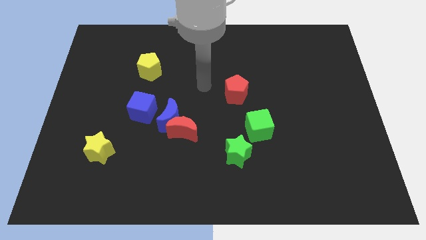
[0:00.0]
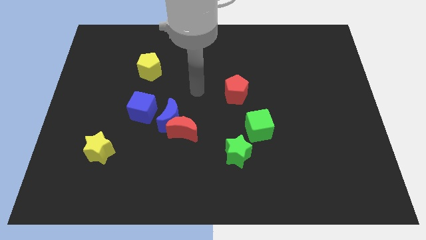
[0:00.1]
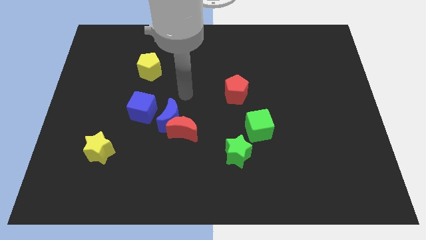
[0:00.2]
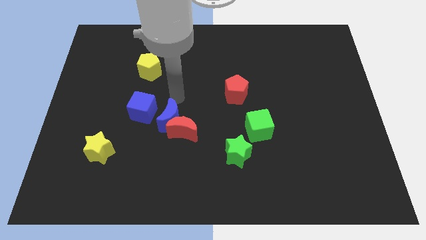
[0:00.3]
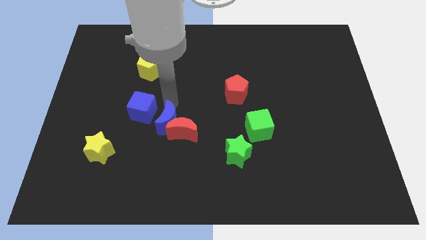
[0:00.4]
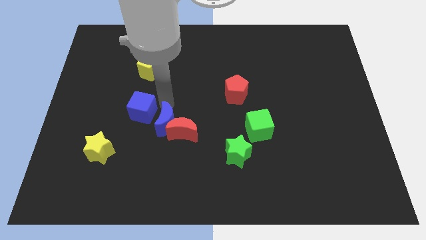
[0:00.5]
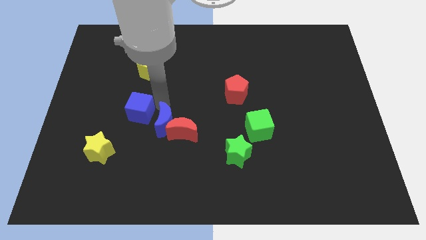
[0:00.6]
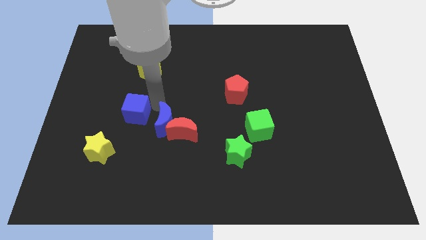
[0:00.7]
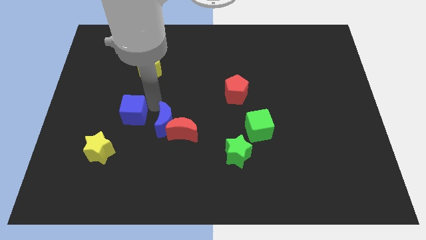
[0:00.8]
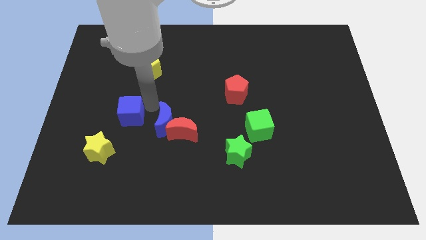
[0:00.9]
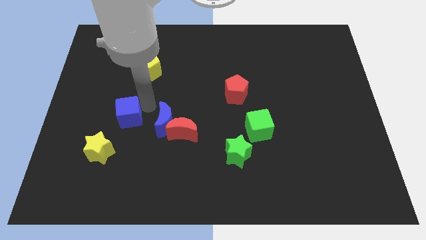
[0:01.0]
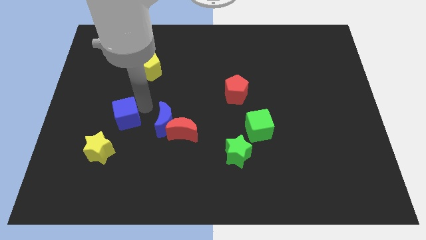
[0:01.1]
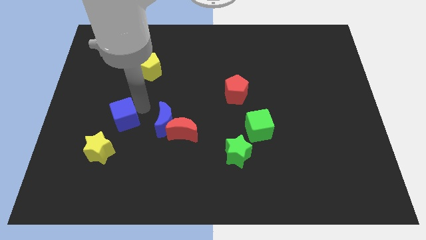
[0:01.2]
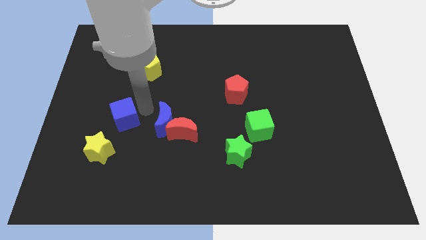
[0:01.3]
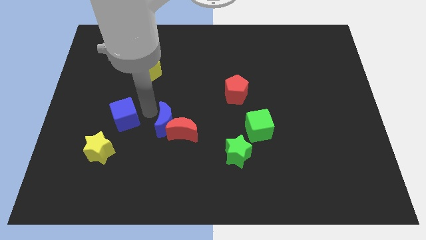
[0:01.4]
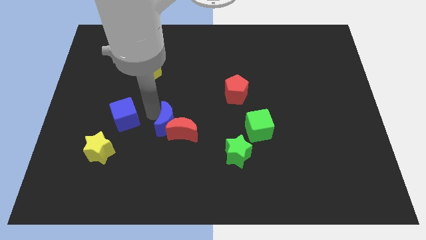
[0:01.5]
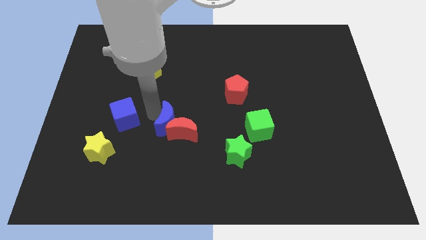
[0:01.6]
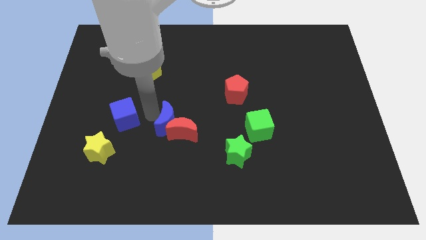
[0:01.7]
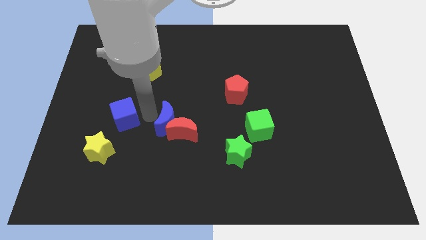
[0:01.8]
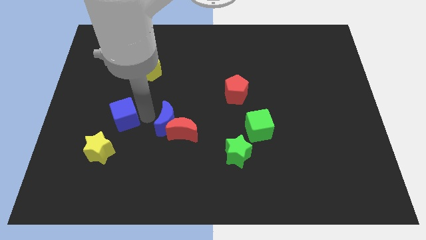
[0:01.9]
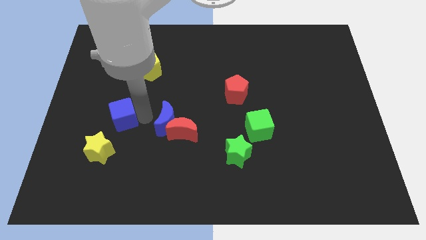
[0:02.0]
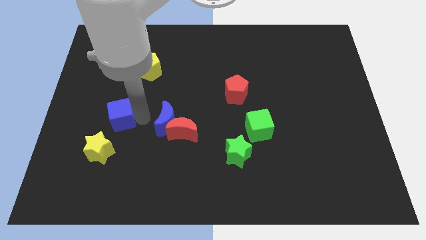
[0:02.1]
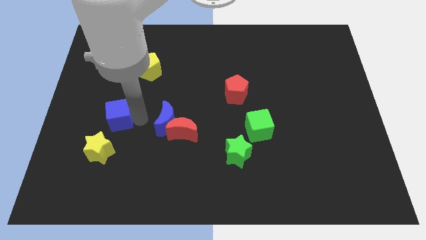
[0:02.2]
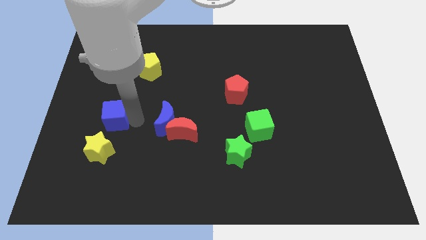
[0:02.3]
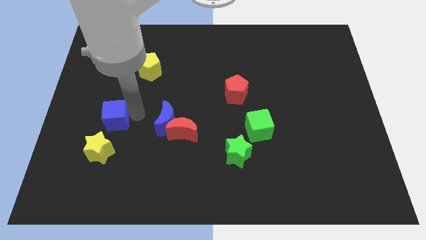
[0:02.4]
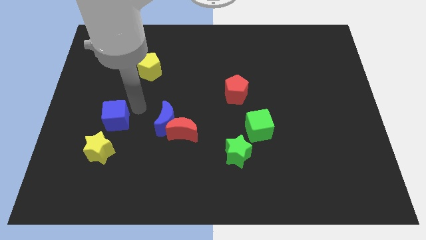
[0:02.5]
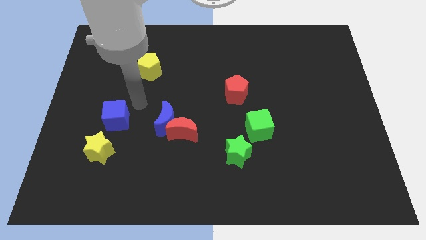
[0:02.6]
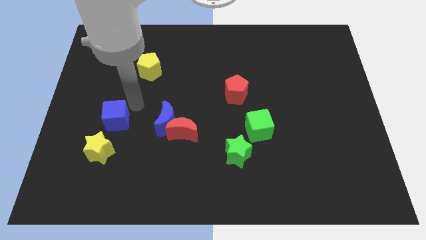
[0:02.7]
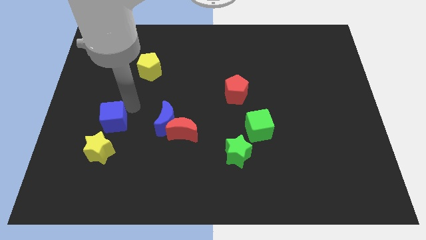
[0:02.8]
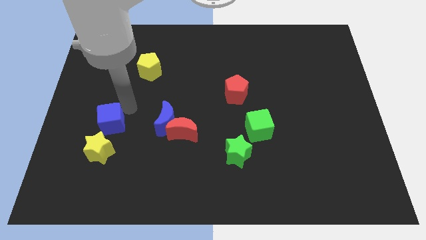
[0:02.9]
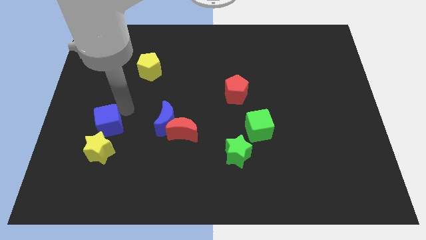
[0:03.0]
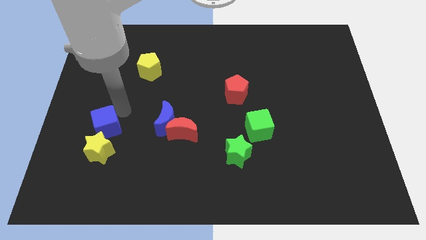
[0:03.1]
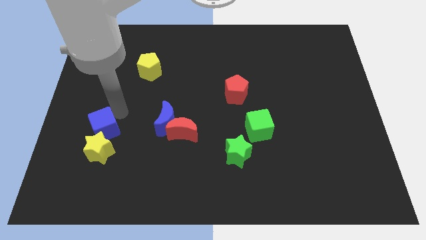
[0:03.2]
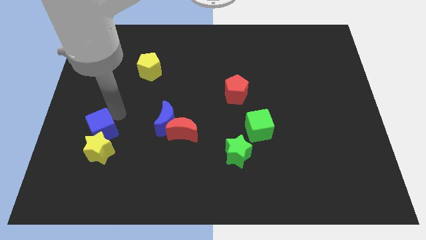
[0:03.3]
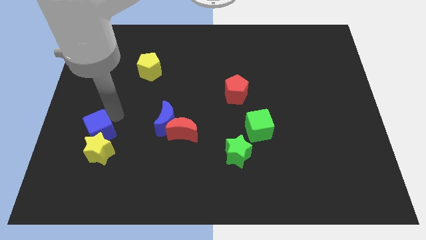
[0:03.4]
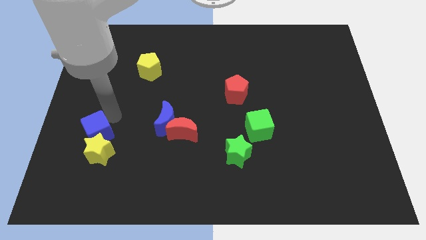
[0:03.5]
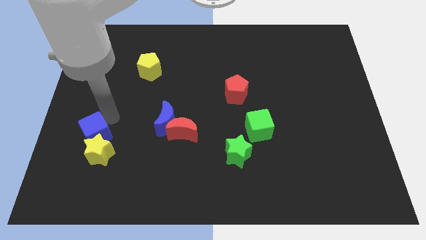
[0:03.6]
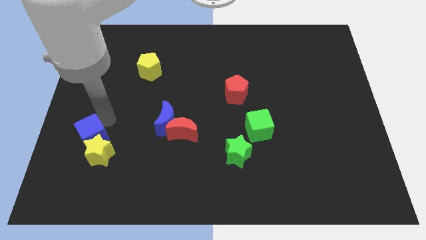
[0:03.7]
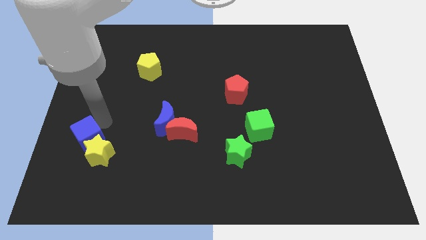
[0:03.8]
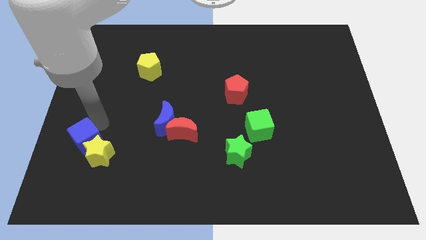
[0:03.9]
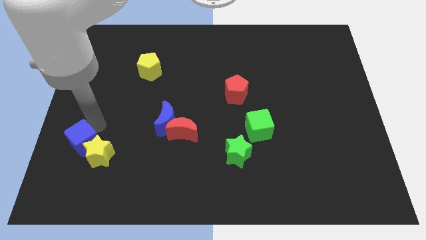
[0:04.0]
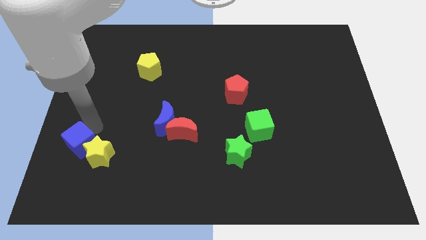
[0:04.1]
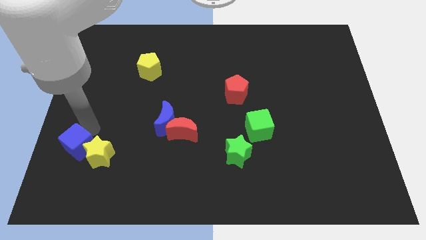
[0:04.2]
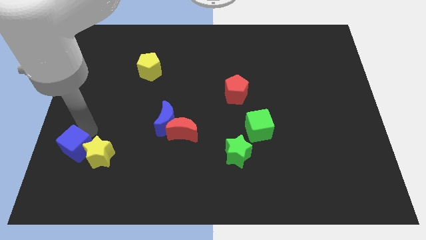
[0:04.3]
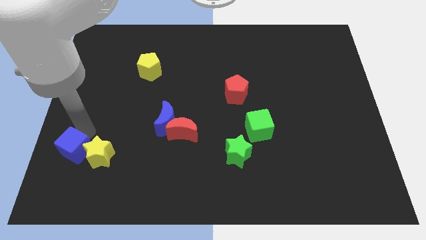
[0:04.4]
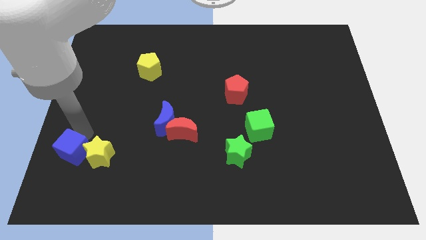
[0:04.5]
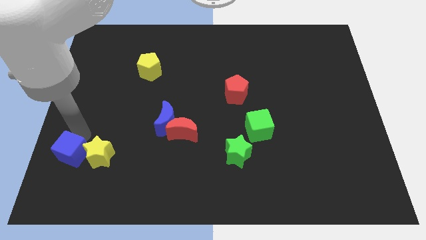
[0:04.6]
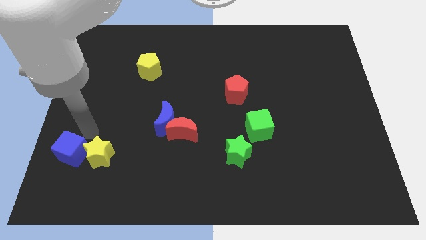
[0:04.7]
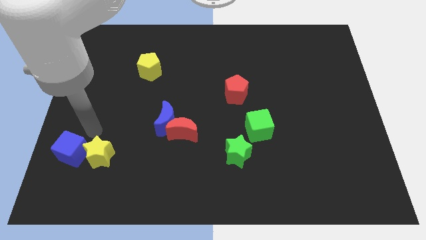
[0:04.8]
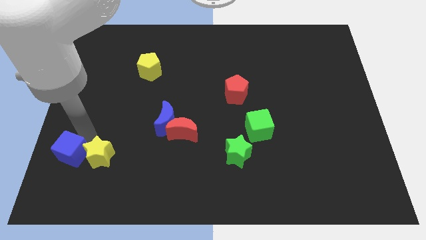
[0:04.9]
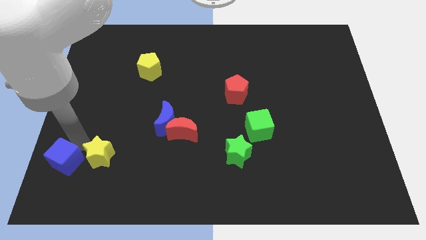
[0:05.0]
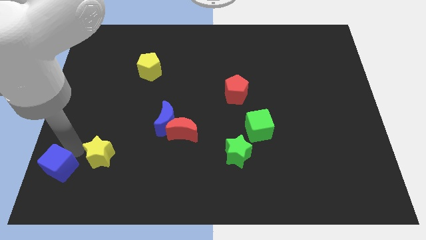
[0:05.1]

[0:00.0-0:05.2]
put the blue cube to the bottom left of the board

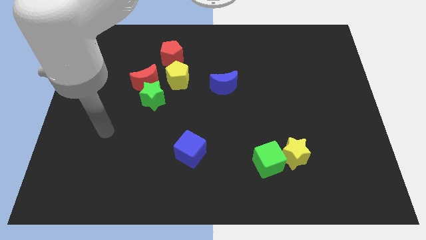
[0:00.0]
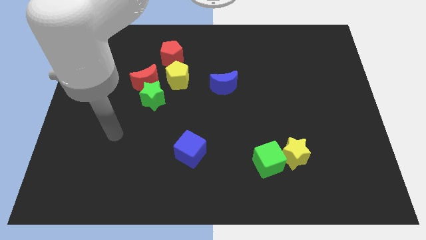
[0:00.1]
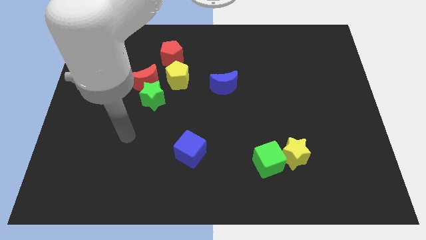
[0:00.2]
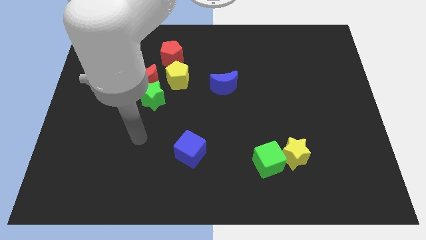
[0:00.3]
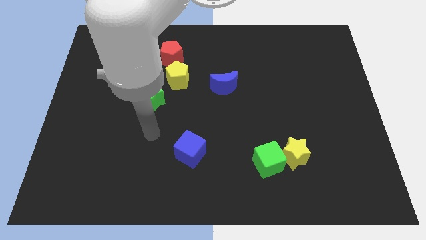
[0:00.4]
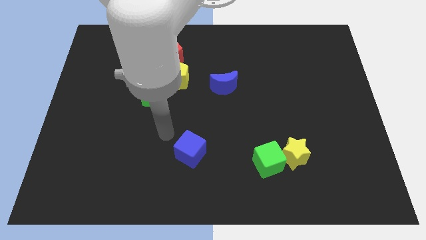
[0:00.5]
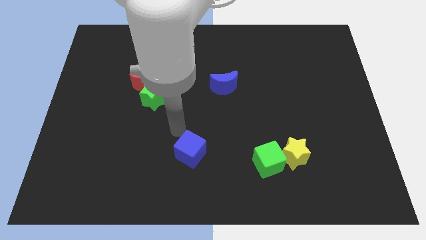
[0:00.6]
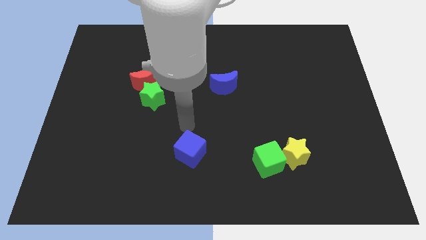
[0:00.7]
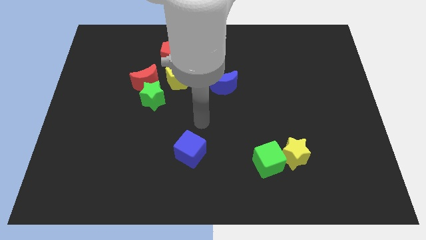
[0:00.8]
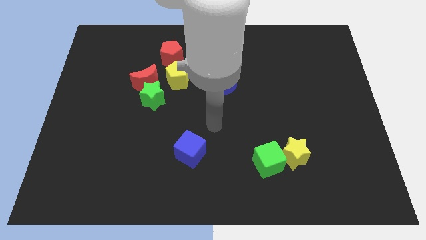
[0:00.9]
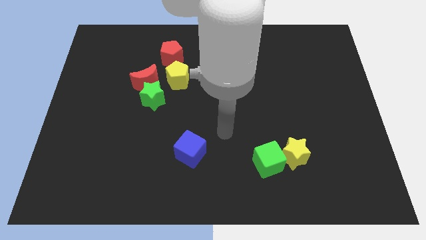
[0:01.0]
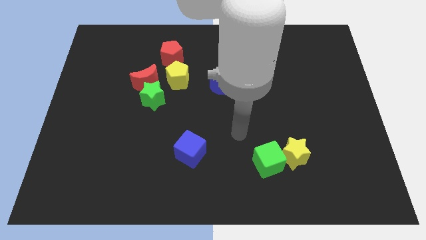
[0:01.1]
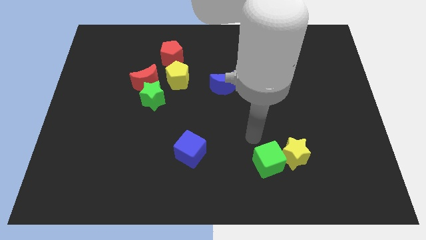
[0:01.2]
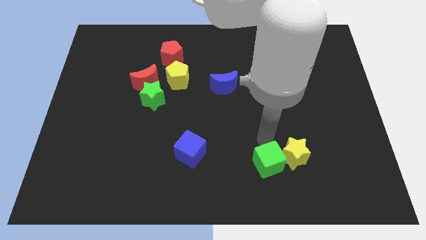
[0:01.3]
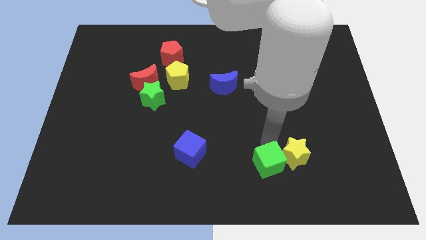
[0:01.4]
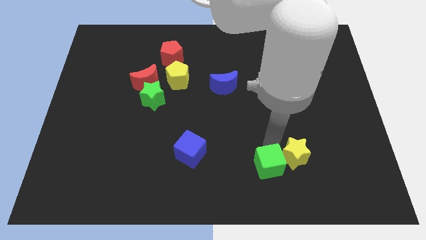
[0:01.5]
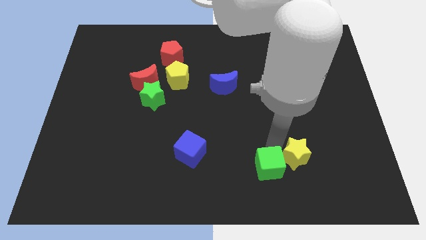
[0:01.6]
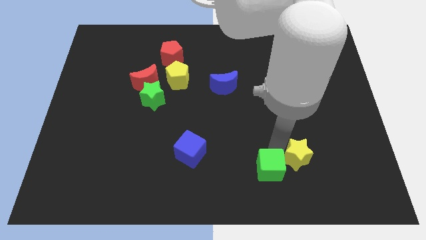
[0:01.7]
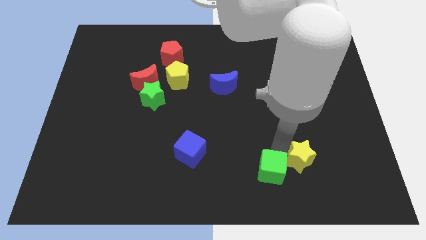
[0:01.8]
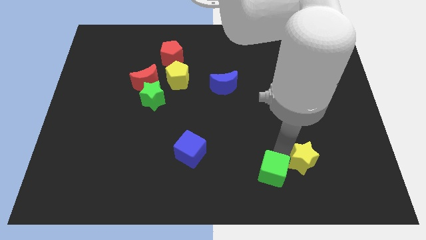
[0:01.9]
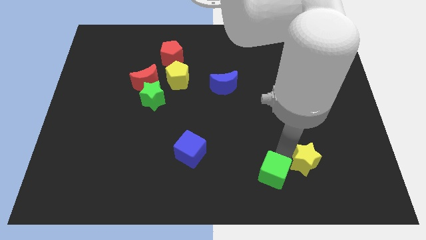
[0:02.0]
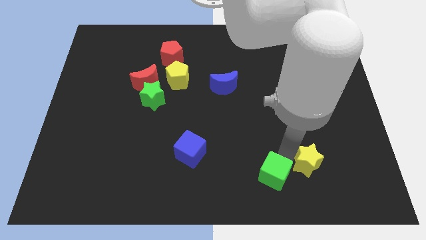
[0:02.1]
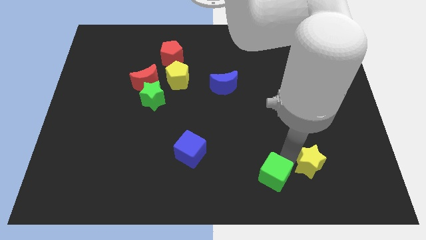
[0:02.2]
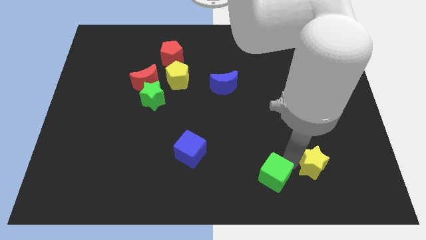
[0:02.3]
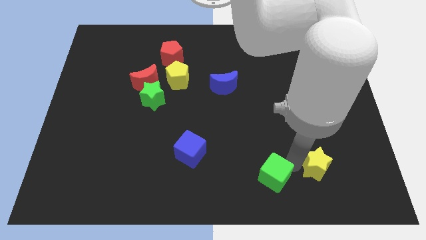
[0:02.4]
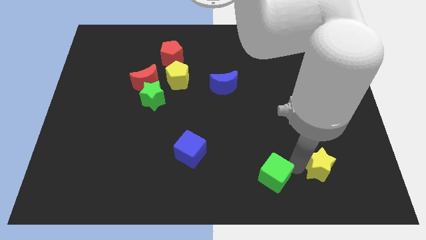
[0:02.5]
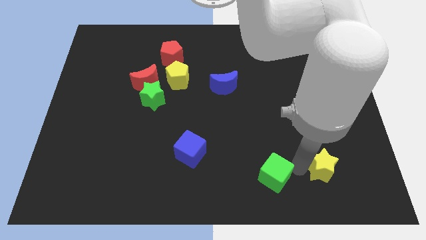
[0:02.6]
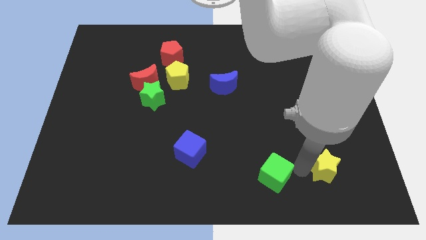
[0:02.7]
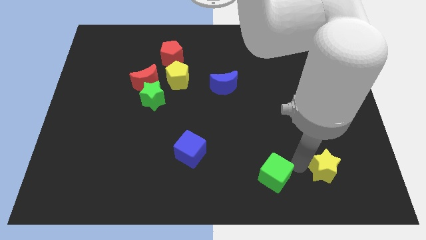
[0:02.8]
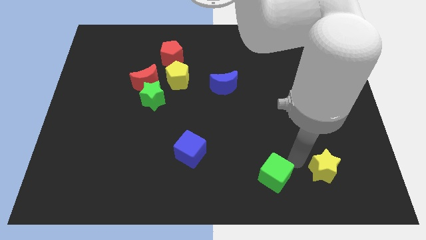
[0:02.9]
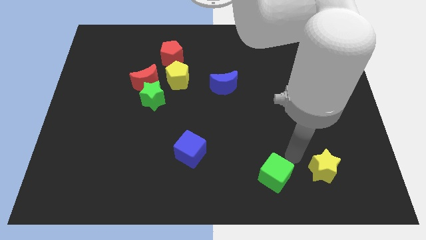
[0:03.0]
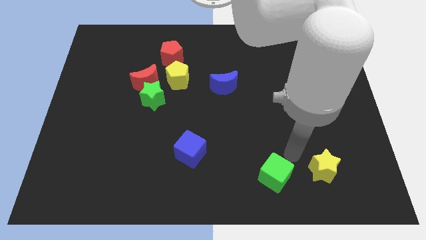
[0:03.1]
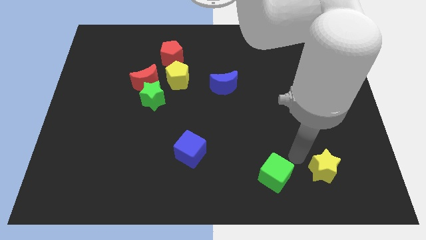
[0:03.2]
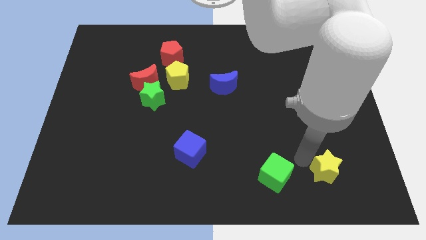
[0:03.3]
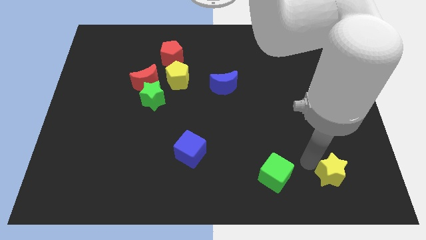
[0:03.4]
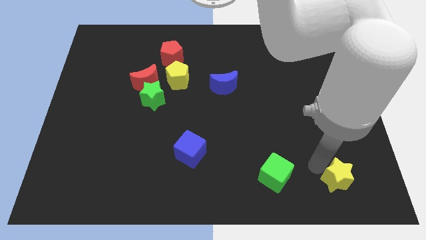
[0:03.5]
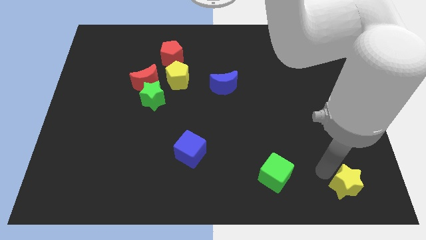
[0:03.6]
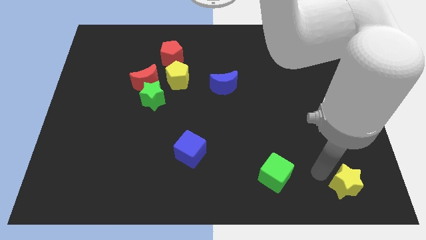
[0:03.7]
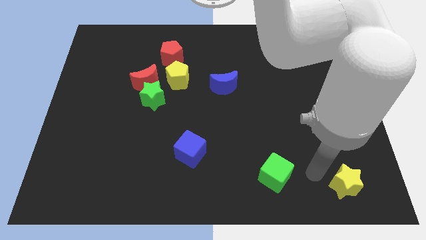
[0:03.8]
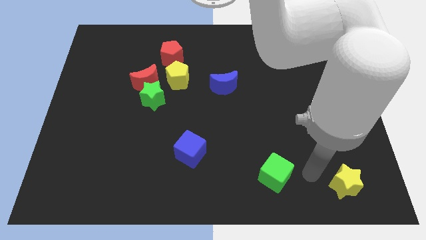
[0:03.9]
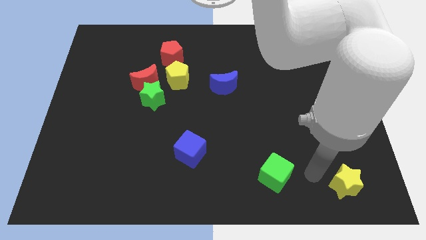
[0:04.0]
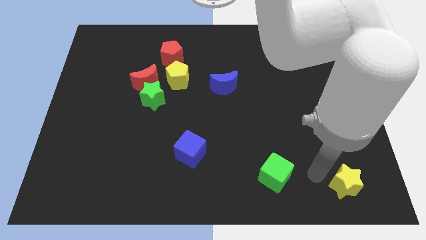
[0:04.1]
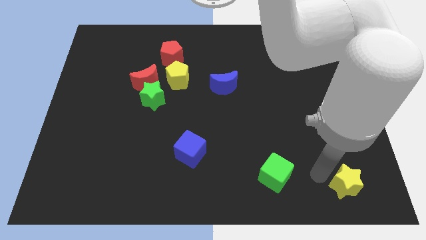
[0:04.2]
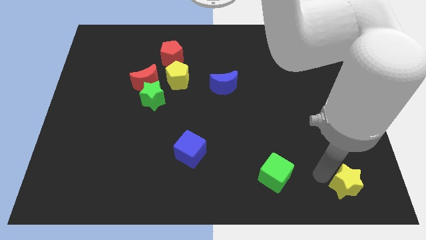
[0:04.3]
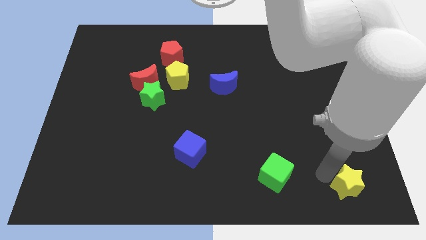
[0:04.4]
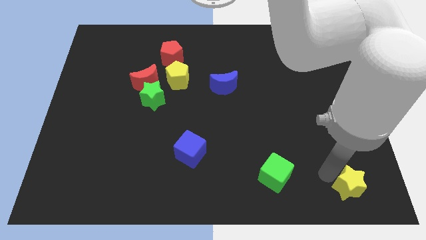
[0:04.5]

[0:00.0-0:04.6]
push the yellow star to the bottom right
